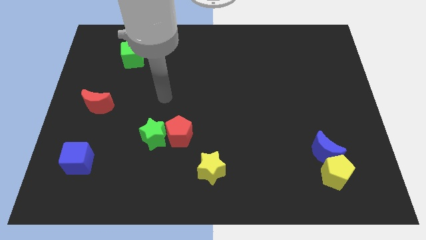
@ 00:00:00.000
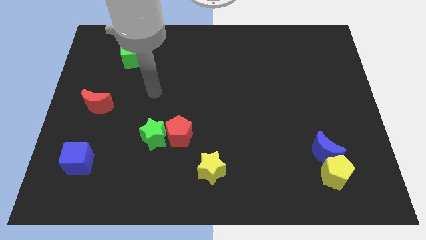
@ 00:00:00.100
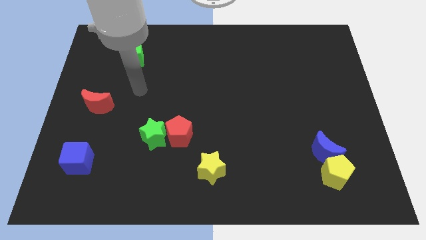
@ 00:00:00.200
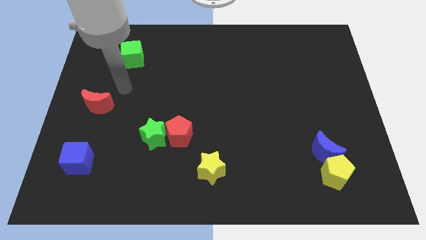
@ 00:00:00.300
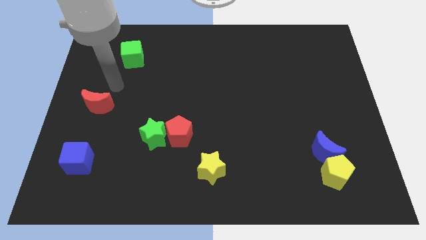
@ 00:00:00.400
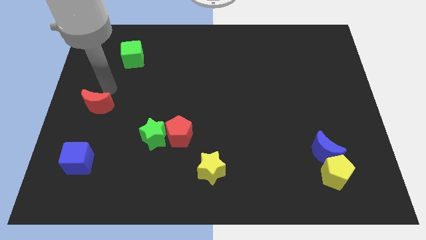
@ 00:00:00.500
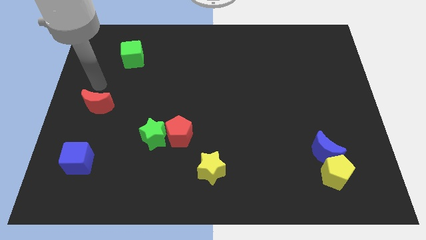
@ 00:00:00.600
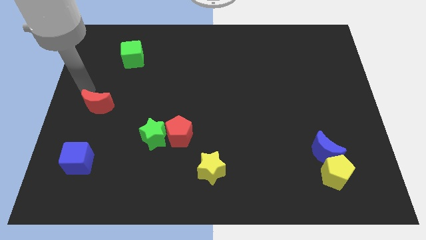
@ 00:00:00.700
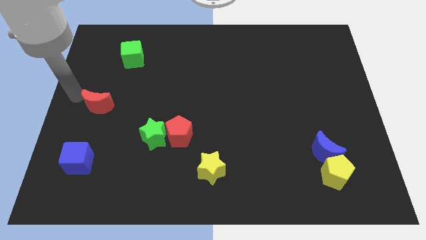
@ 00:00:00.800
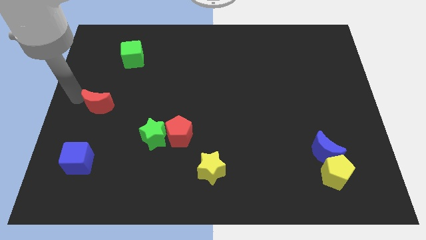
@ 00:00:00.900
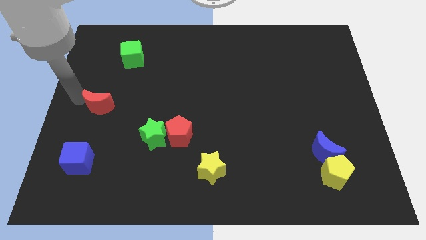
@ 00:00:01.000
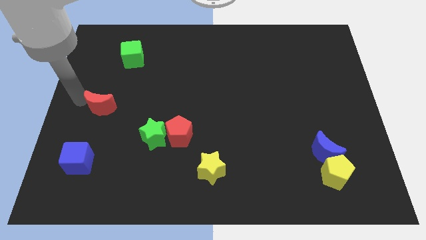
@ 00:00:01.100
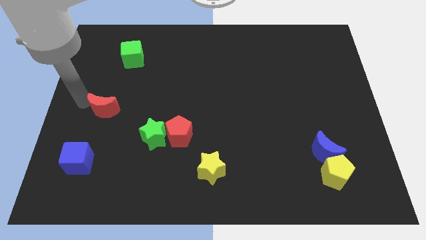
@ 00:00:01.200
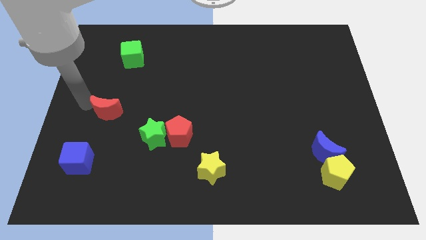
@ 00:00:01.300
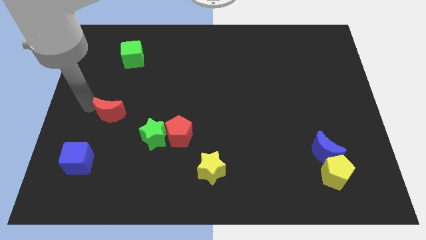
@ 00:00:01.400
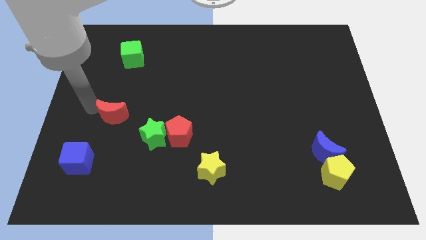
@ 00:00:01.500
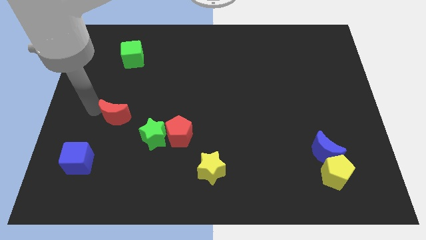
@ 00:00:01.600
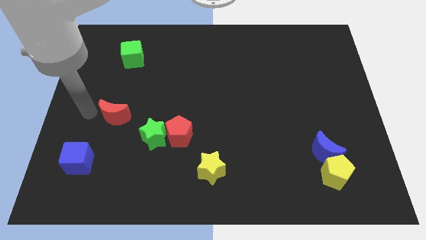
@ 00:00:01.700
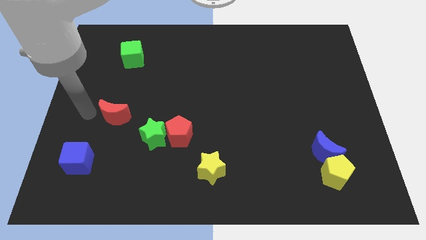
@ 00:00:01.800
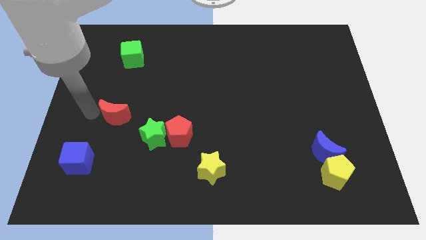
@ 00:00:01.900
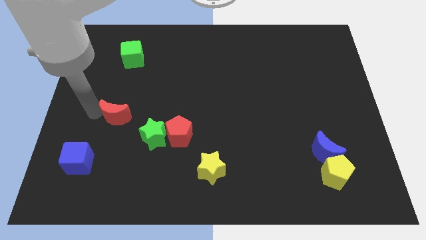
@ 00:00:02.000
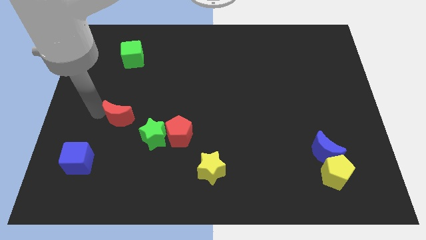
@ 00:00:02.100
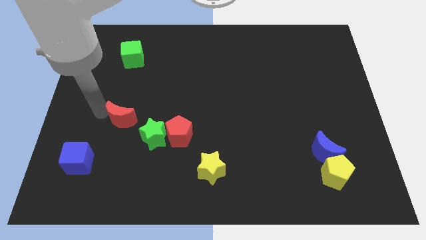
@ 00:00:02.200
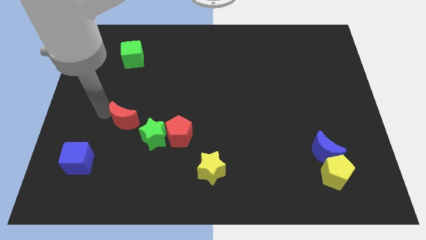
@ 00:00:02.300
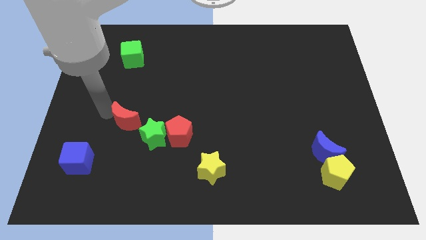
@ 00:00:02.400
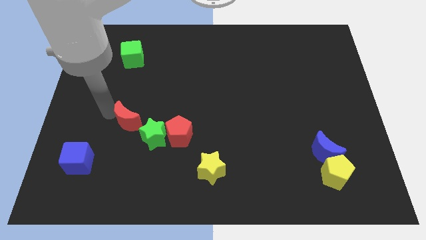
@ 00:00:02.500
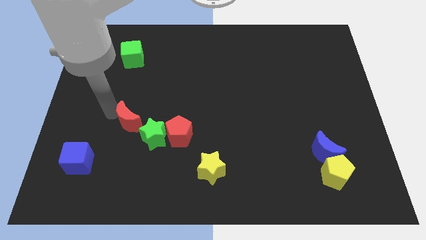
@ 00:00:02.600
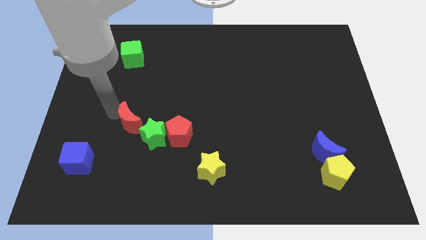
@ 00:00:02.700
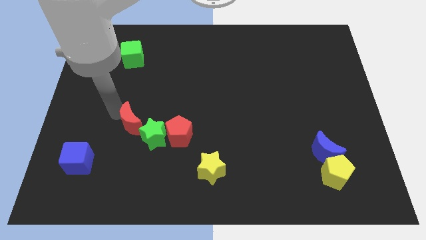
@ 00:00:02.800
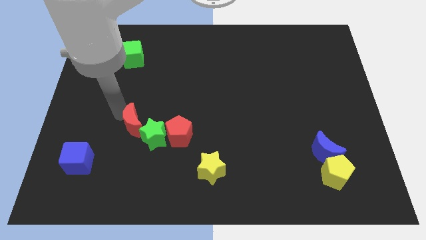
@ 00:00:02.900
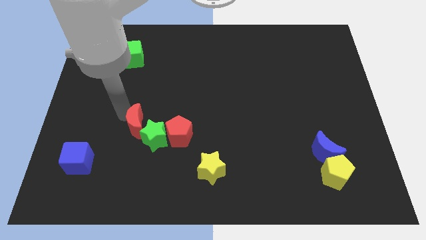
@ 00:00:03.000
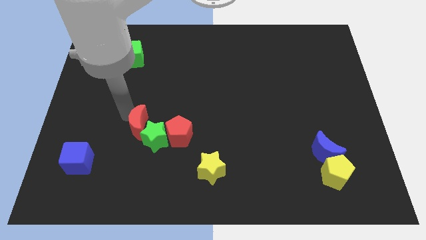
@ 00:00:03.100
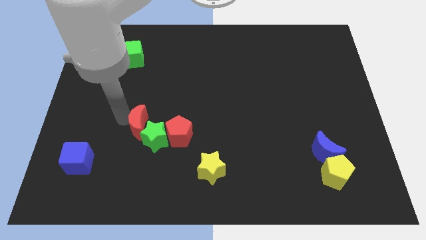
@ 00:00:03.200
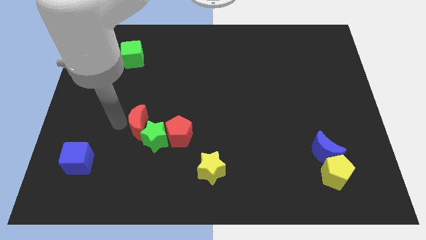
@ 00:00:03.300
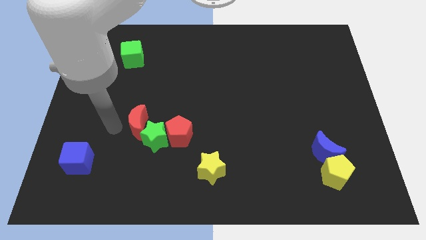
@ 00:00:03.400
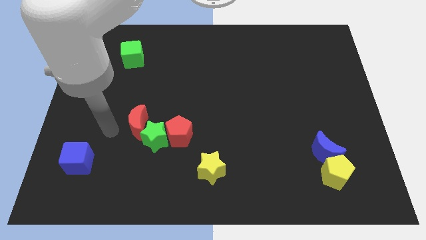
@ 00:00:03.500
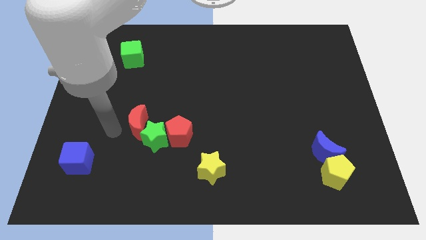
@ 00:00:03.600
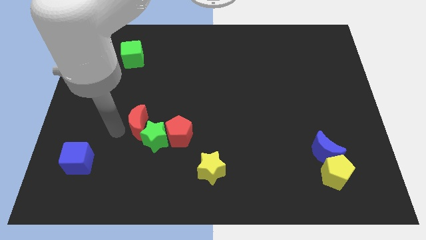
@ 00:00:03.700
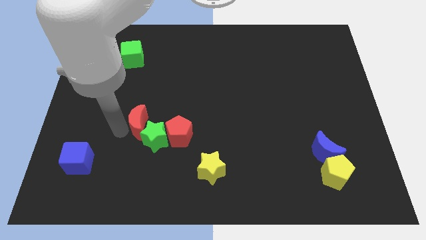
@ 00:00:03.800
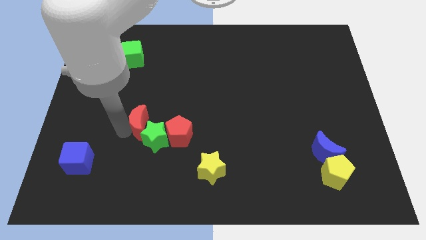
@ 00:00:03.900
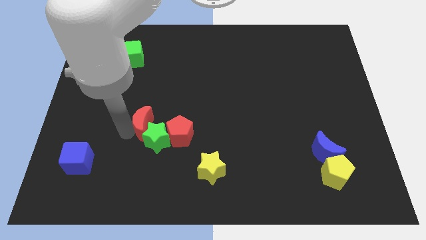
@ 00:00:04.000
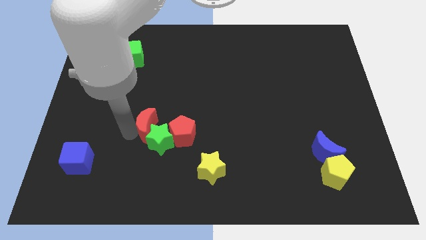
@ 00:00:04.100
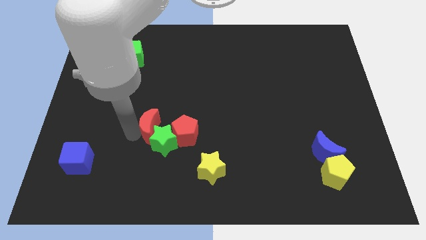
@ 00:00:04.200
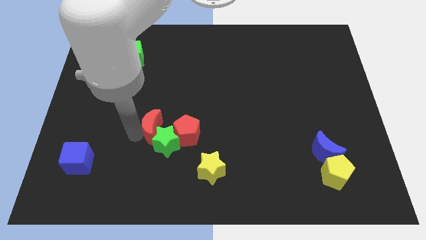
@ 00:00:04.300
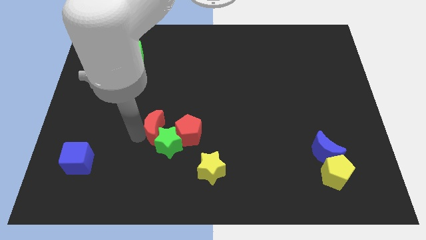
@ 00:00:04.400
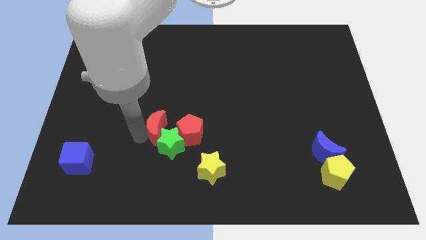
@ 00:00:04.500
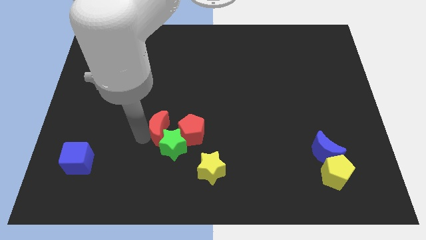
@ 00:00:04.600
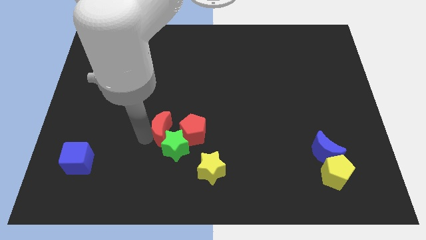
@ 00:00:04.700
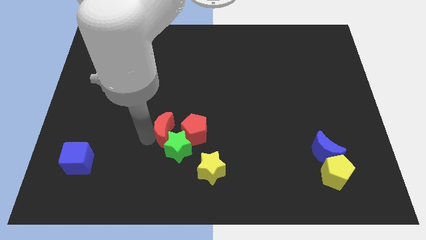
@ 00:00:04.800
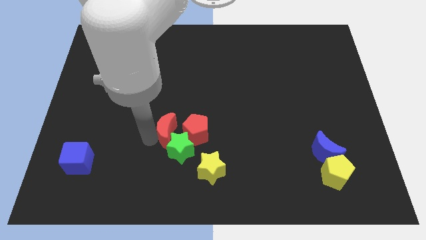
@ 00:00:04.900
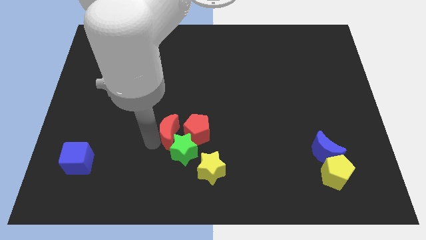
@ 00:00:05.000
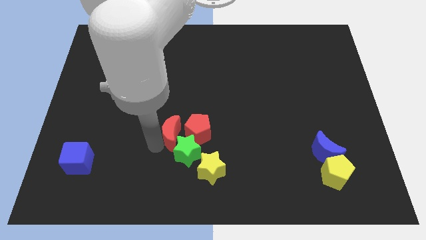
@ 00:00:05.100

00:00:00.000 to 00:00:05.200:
put the red moon to the red pentagon

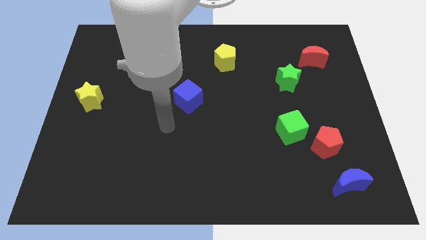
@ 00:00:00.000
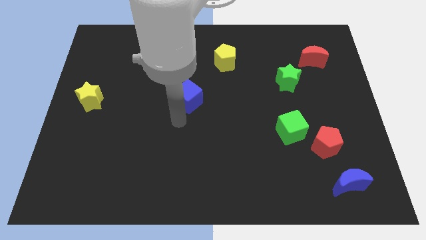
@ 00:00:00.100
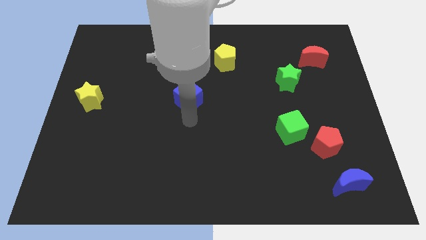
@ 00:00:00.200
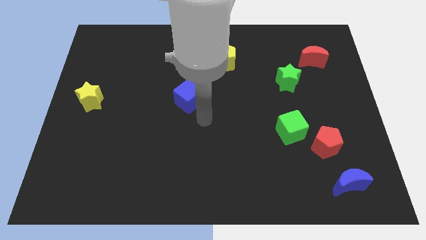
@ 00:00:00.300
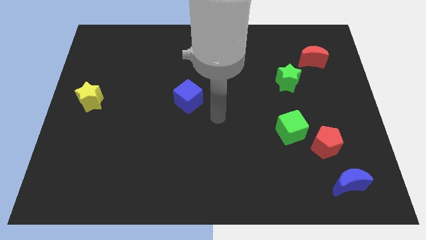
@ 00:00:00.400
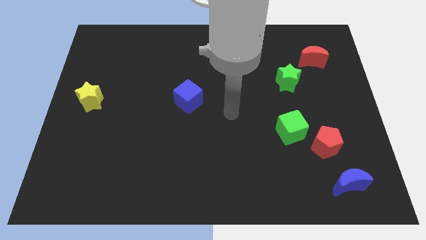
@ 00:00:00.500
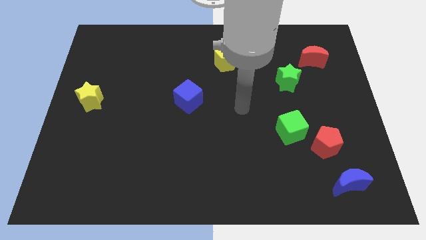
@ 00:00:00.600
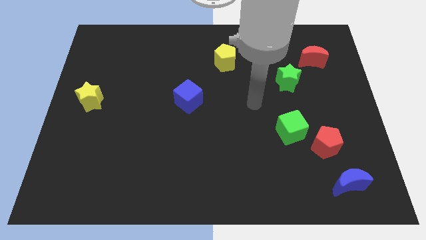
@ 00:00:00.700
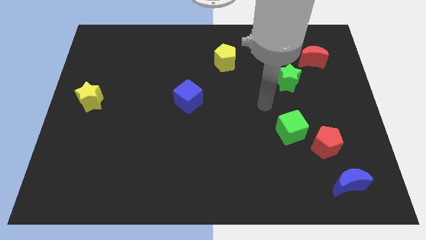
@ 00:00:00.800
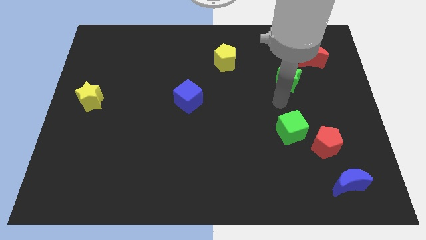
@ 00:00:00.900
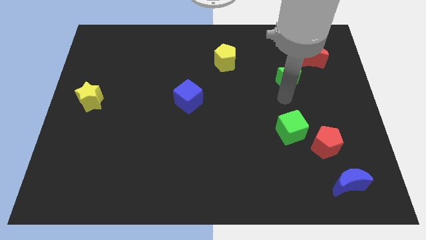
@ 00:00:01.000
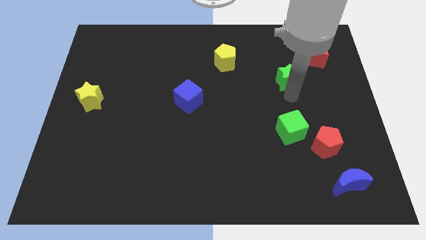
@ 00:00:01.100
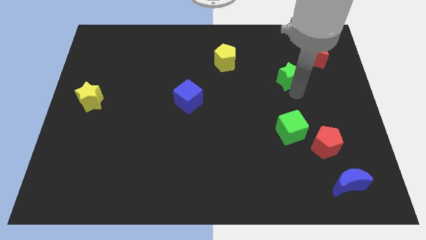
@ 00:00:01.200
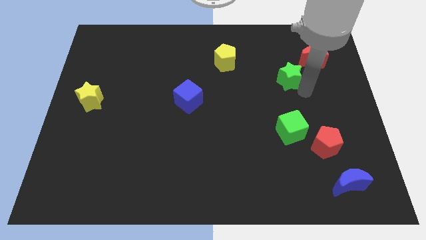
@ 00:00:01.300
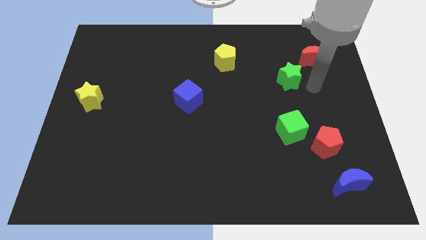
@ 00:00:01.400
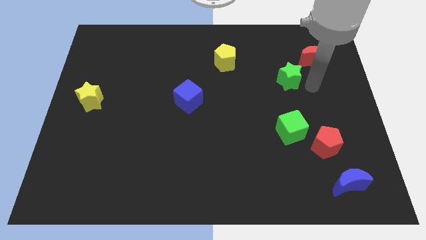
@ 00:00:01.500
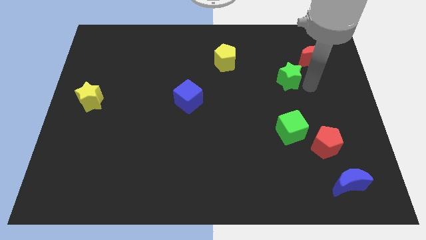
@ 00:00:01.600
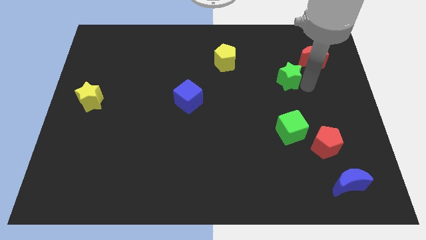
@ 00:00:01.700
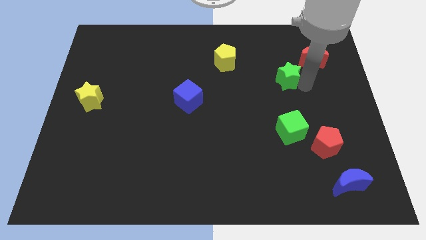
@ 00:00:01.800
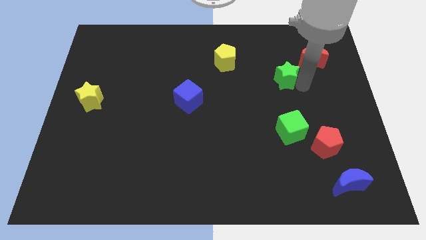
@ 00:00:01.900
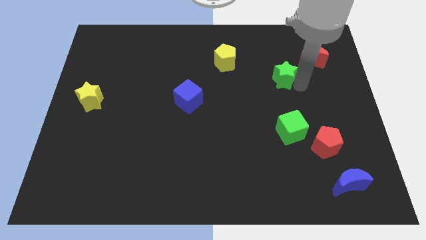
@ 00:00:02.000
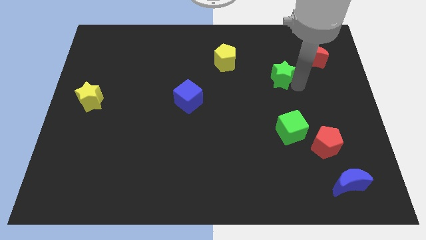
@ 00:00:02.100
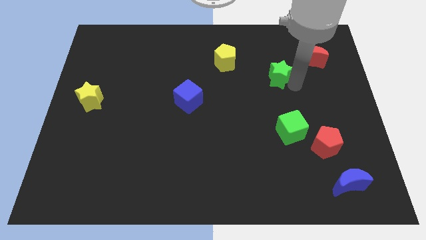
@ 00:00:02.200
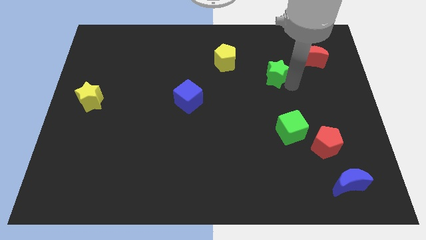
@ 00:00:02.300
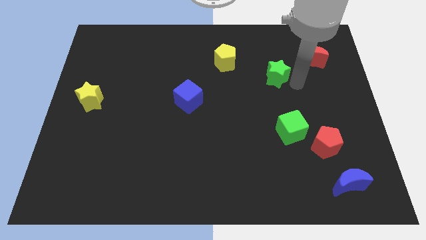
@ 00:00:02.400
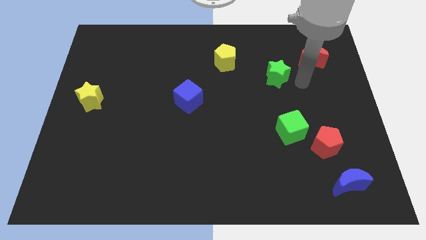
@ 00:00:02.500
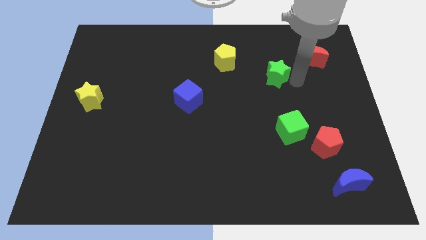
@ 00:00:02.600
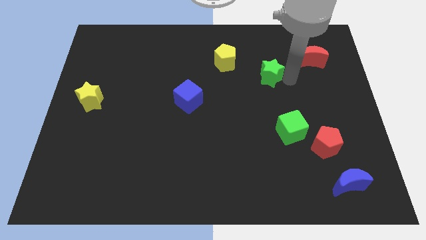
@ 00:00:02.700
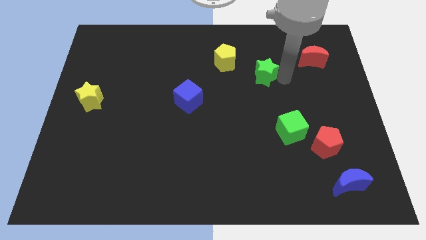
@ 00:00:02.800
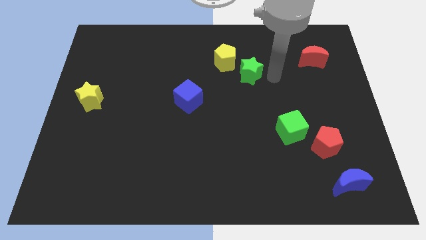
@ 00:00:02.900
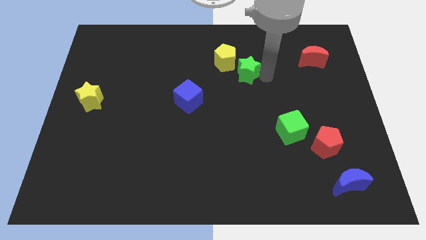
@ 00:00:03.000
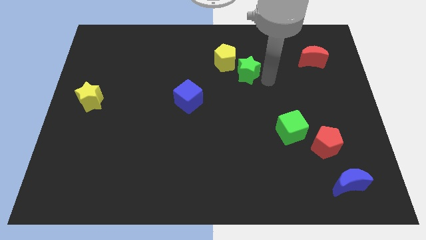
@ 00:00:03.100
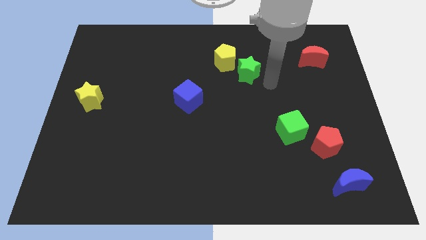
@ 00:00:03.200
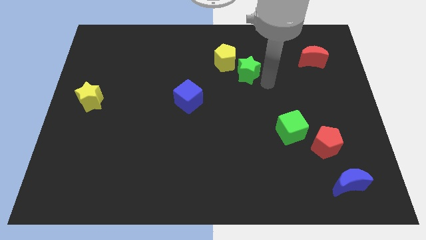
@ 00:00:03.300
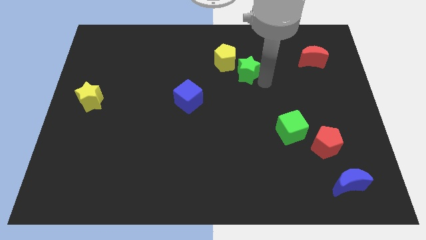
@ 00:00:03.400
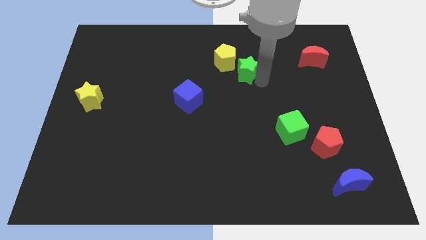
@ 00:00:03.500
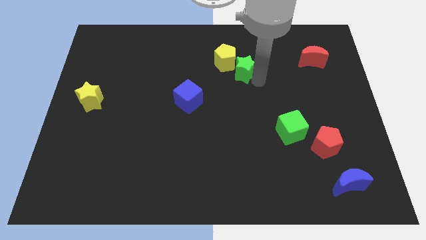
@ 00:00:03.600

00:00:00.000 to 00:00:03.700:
push the green star towards the yellow pentagon
